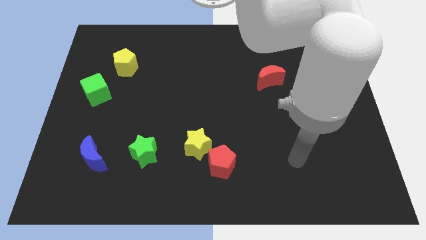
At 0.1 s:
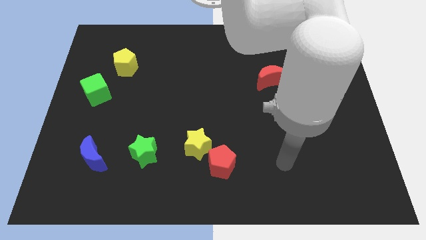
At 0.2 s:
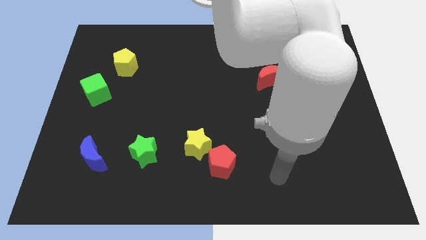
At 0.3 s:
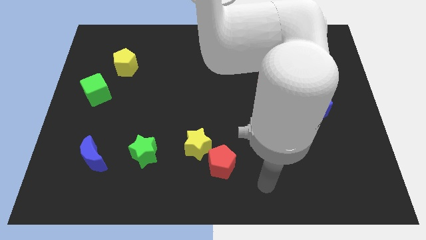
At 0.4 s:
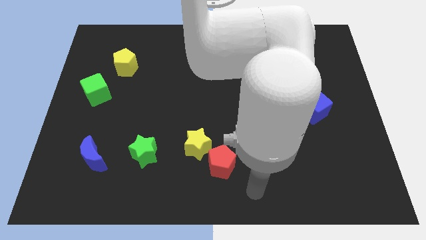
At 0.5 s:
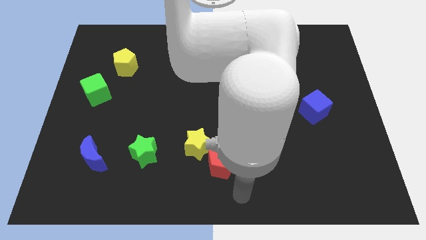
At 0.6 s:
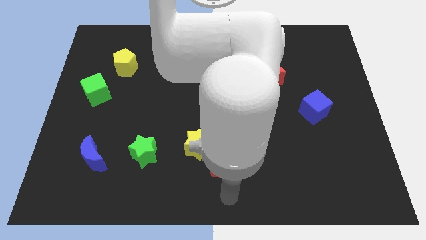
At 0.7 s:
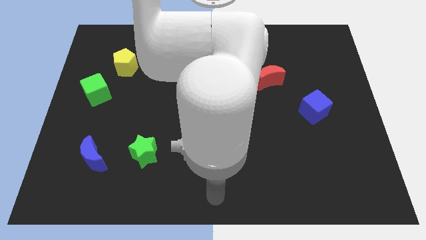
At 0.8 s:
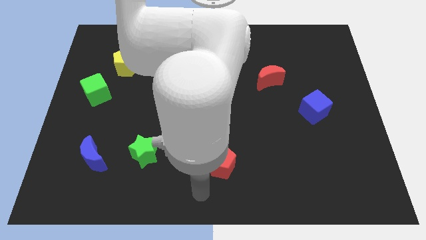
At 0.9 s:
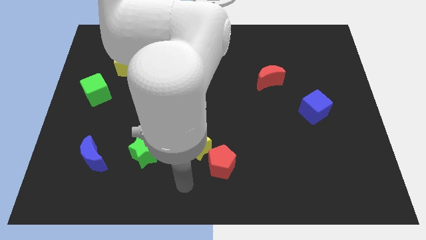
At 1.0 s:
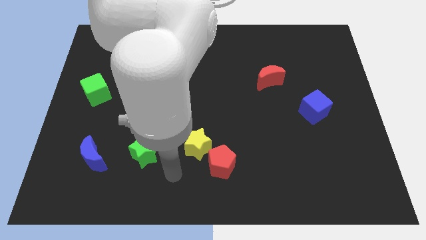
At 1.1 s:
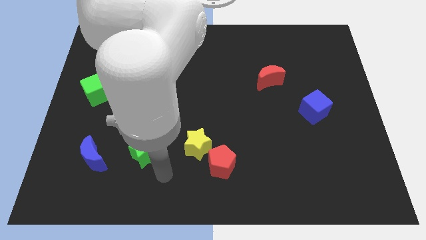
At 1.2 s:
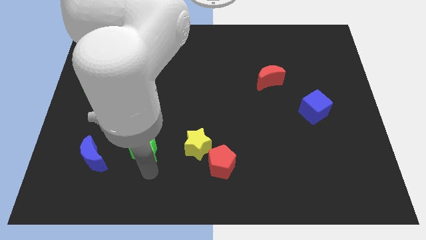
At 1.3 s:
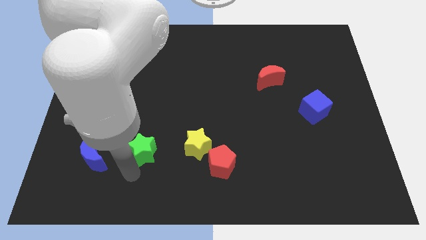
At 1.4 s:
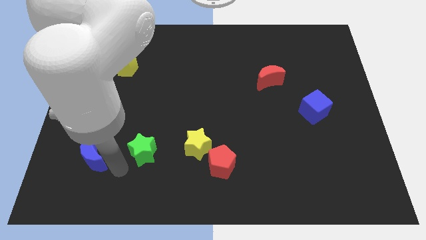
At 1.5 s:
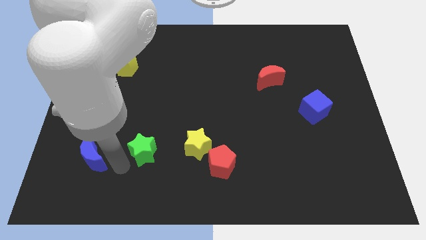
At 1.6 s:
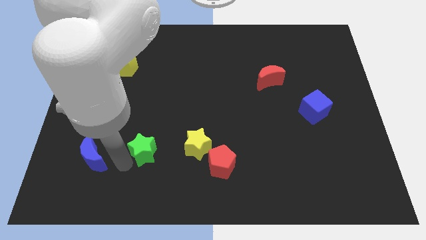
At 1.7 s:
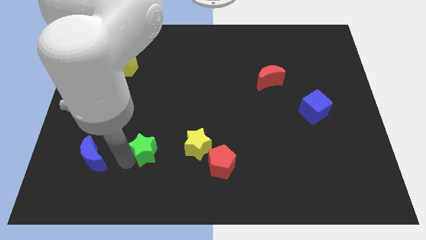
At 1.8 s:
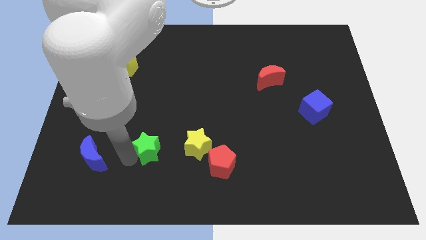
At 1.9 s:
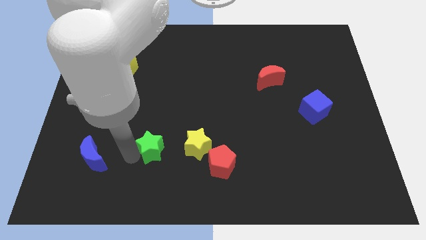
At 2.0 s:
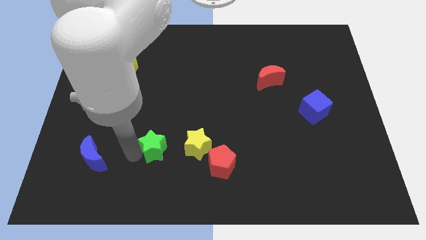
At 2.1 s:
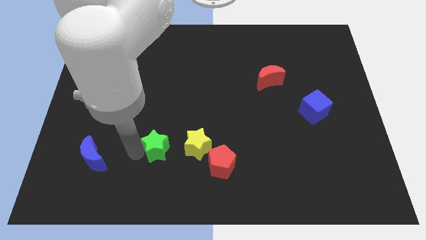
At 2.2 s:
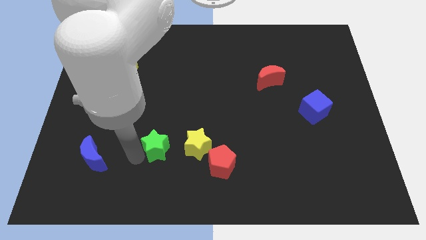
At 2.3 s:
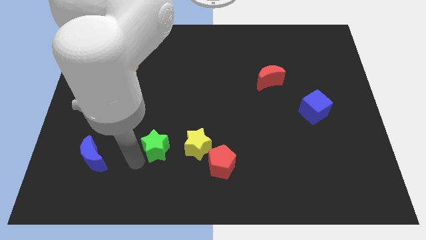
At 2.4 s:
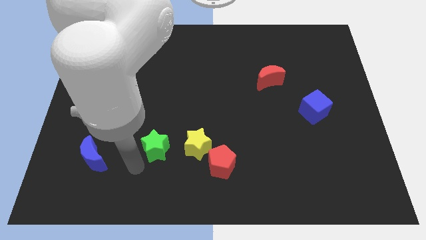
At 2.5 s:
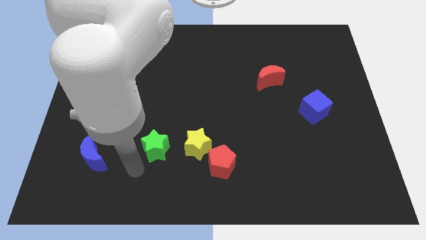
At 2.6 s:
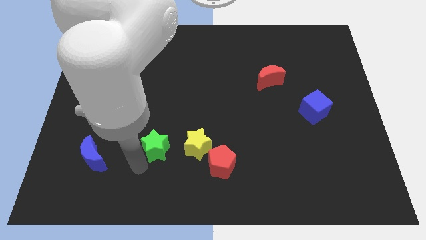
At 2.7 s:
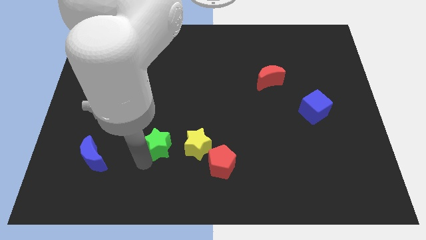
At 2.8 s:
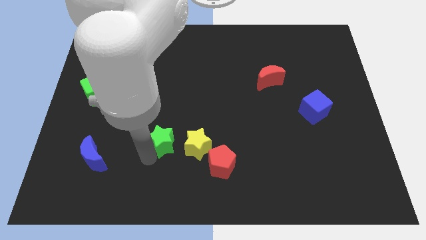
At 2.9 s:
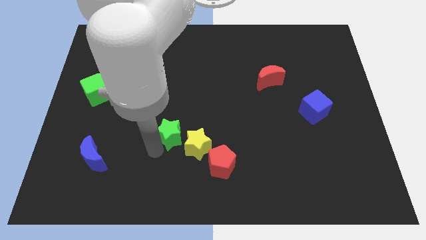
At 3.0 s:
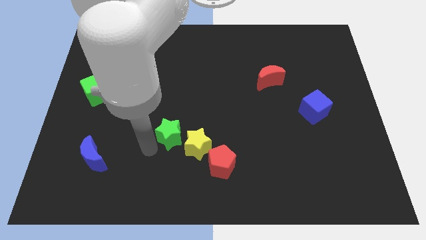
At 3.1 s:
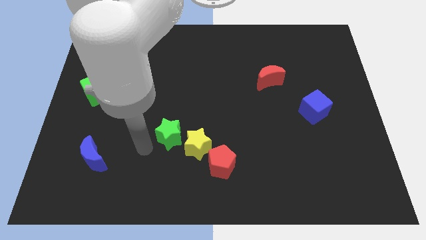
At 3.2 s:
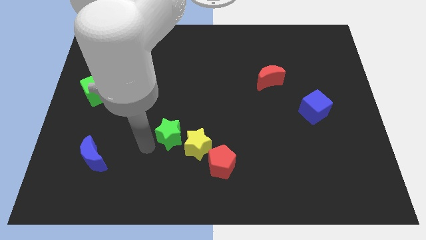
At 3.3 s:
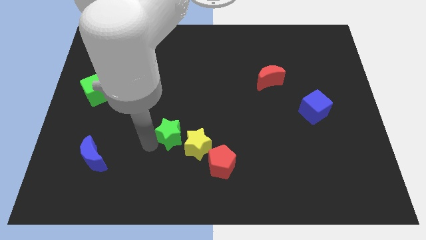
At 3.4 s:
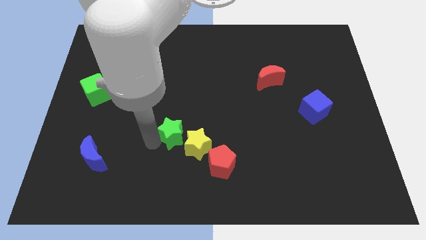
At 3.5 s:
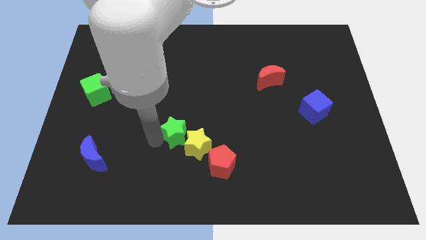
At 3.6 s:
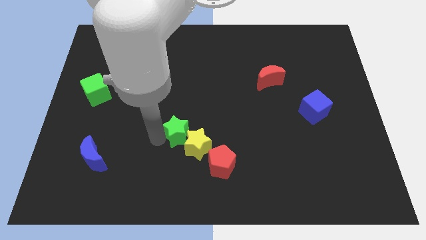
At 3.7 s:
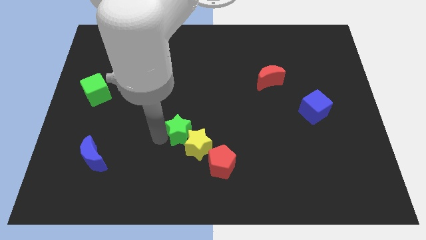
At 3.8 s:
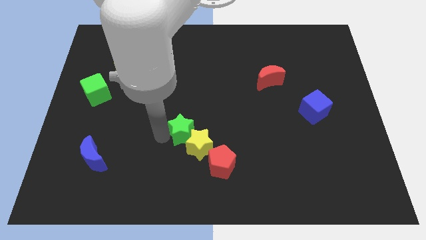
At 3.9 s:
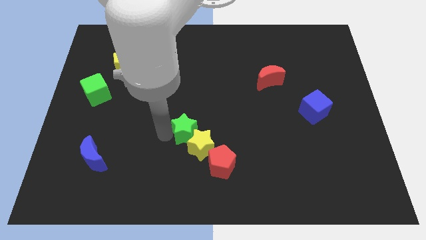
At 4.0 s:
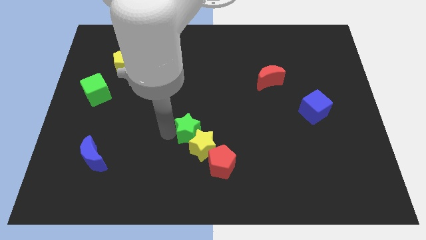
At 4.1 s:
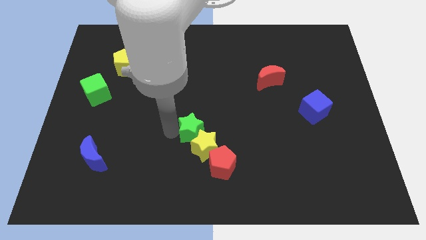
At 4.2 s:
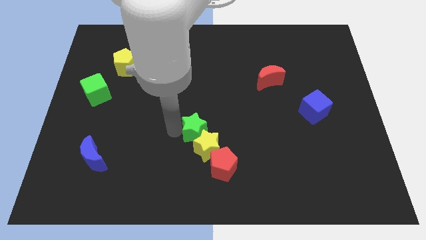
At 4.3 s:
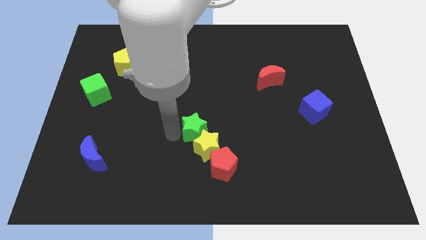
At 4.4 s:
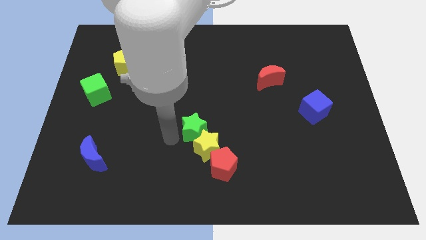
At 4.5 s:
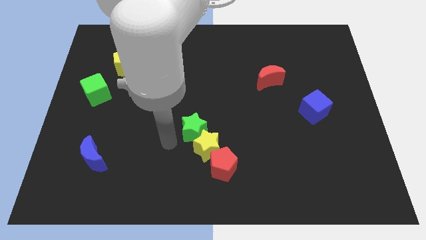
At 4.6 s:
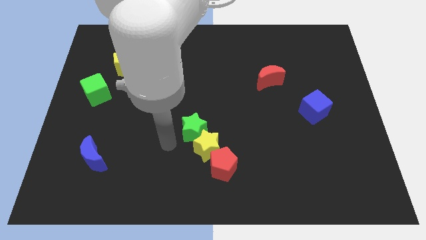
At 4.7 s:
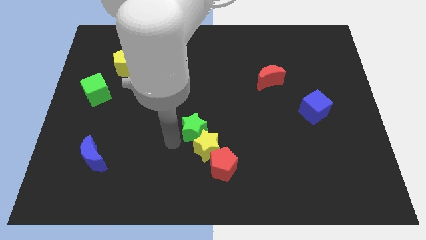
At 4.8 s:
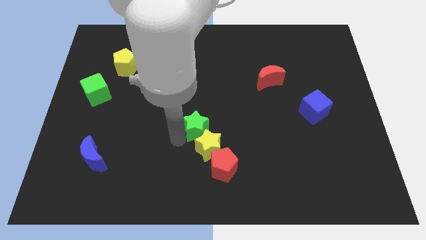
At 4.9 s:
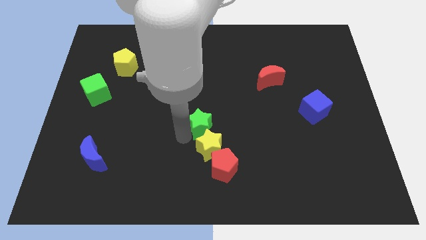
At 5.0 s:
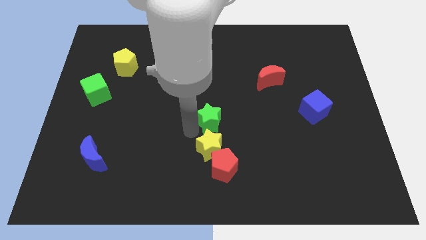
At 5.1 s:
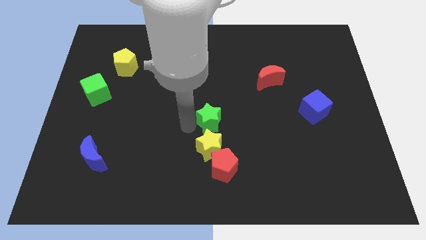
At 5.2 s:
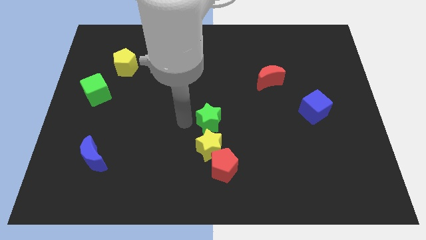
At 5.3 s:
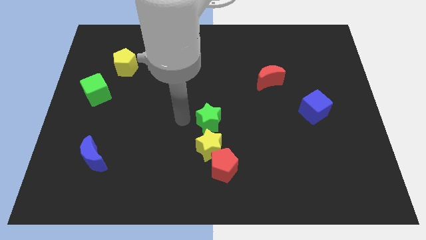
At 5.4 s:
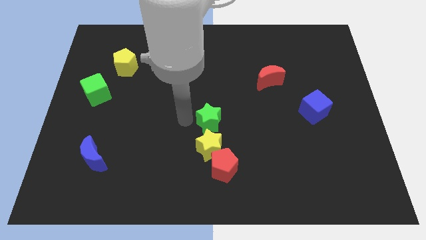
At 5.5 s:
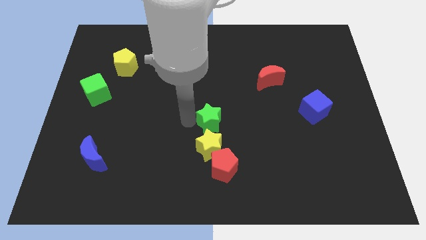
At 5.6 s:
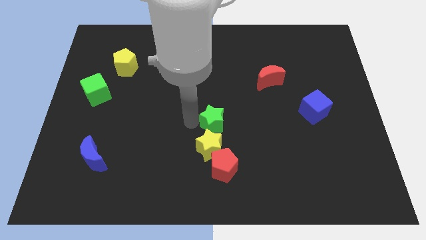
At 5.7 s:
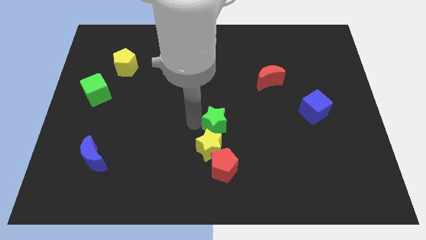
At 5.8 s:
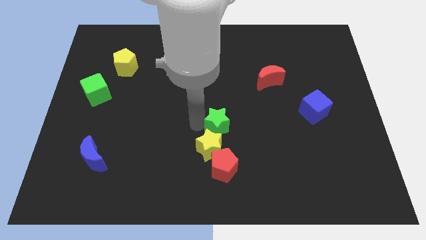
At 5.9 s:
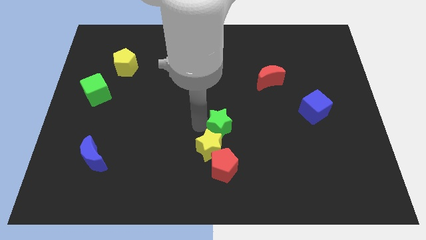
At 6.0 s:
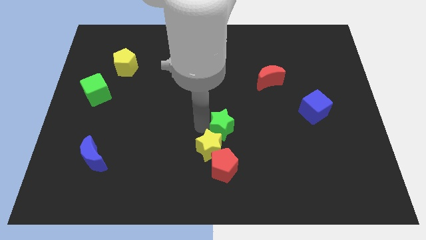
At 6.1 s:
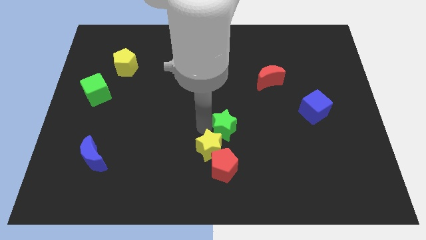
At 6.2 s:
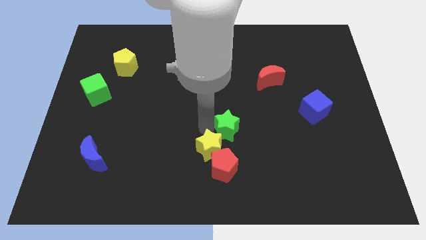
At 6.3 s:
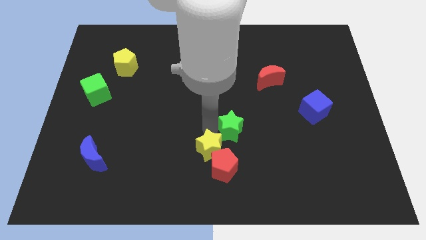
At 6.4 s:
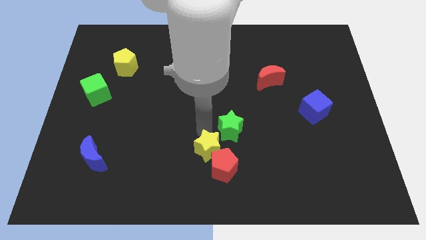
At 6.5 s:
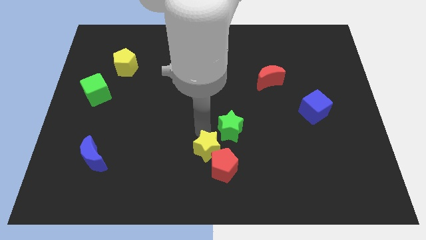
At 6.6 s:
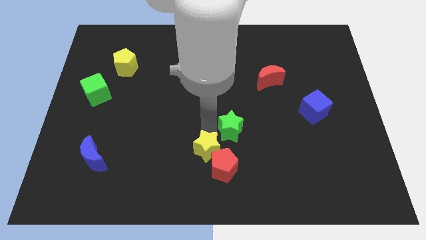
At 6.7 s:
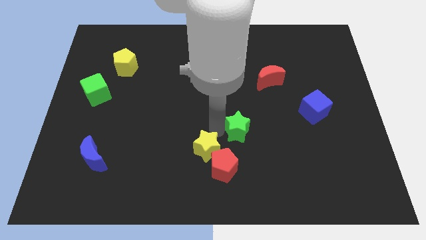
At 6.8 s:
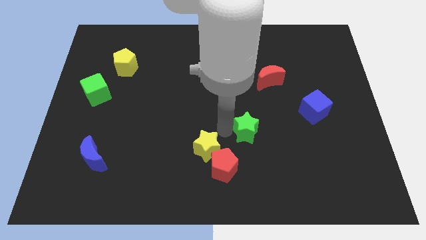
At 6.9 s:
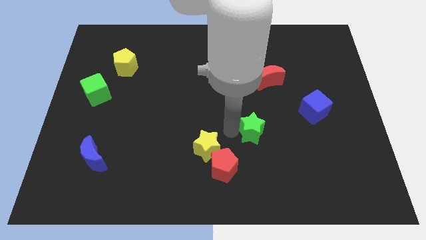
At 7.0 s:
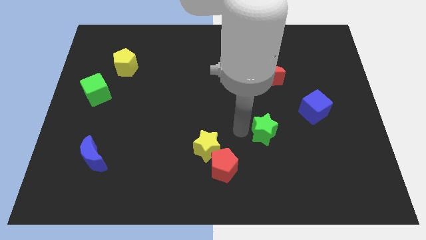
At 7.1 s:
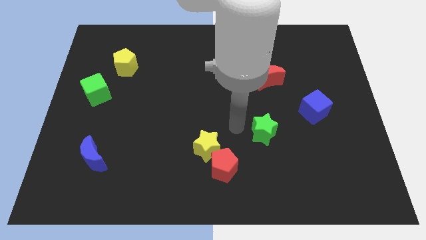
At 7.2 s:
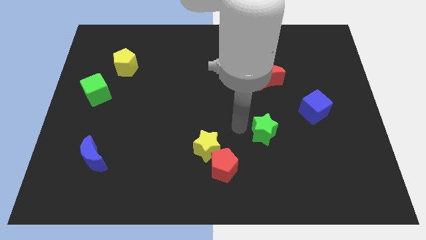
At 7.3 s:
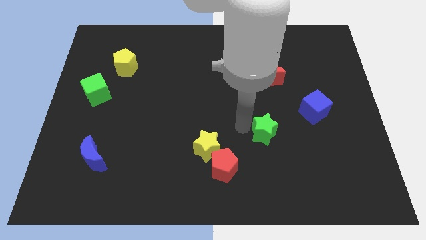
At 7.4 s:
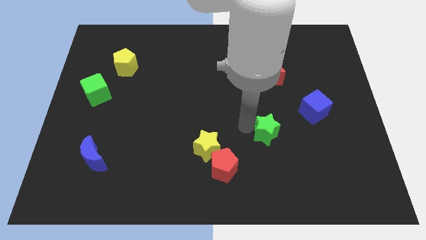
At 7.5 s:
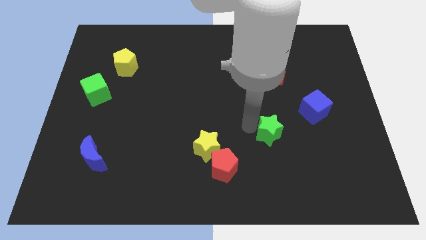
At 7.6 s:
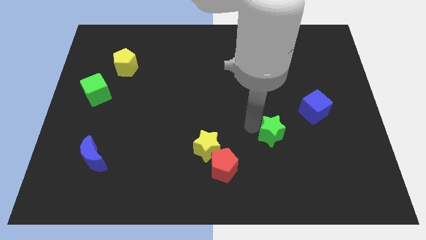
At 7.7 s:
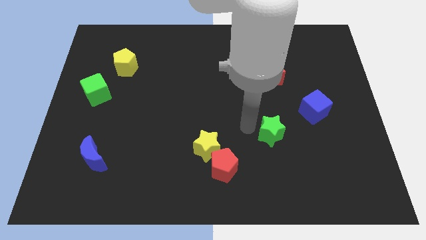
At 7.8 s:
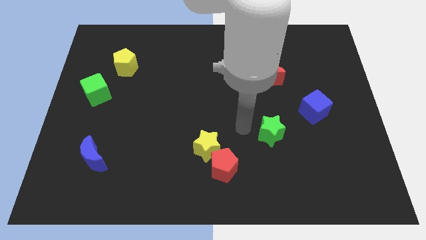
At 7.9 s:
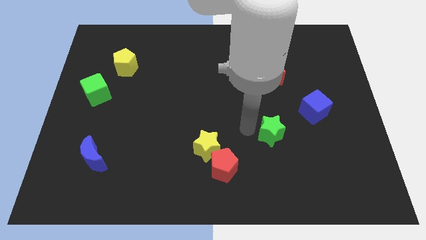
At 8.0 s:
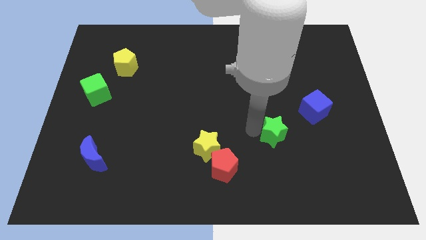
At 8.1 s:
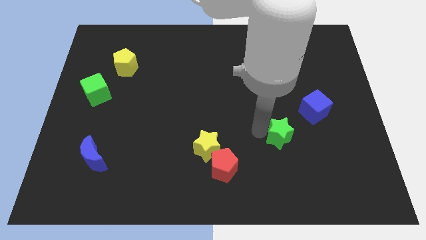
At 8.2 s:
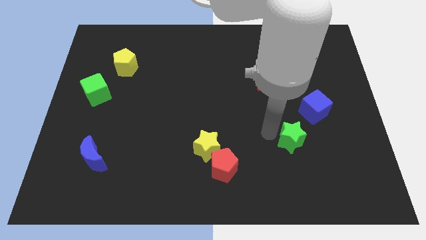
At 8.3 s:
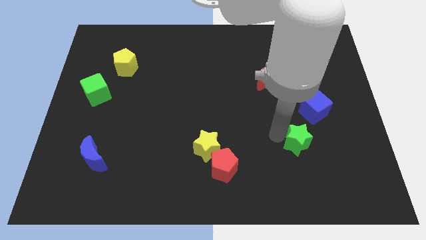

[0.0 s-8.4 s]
slide the green star to the bottom of the blue cube
